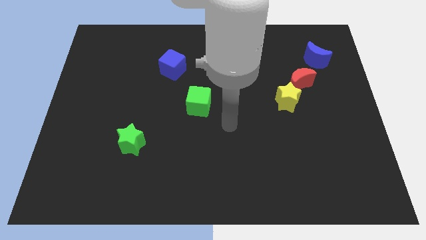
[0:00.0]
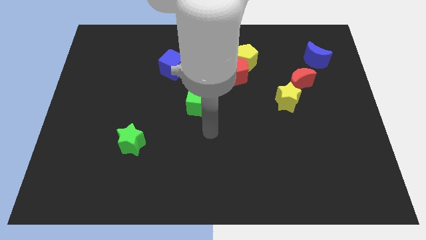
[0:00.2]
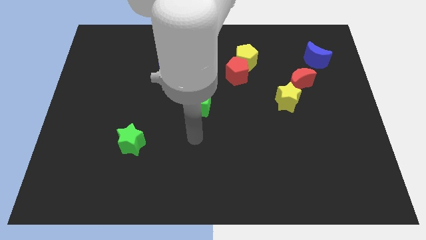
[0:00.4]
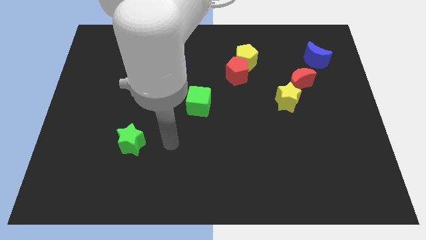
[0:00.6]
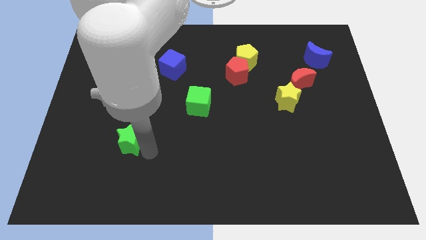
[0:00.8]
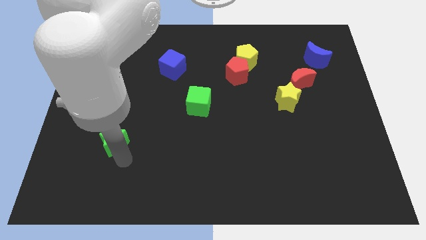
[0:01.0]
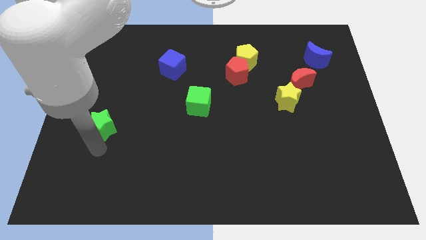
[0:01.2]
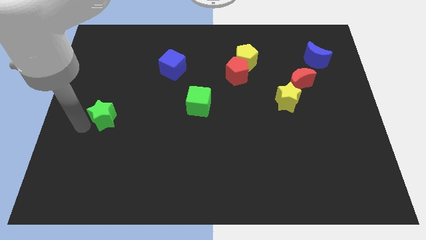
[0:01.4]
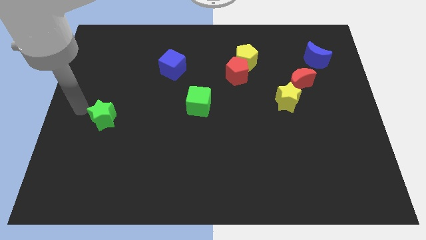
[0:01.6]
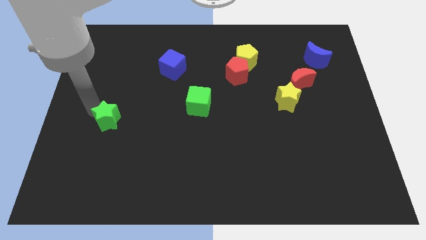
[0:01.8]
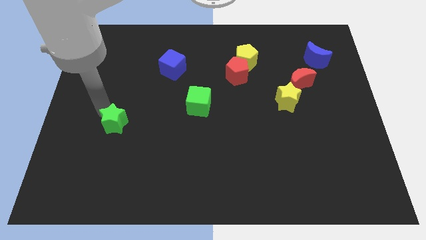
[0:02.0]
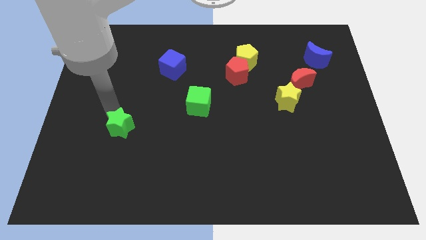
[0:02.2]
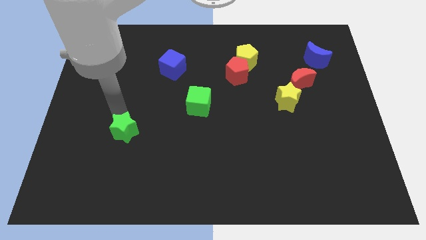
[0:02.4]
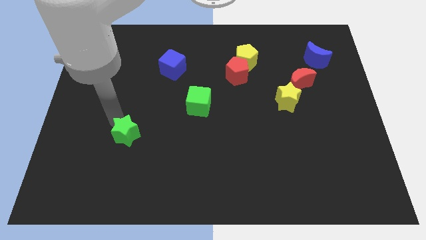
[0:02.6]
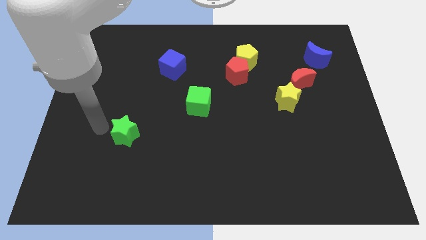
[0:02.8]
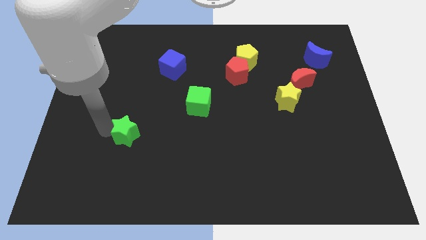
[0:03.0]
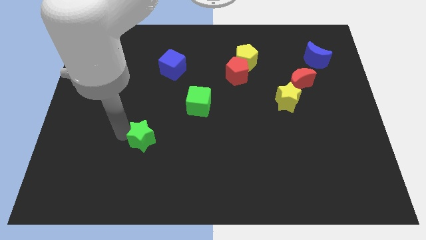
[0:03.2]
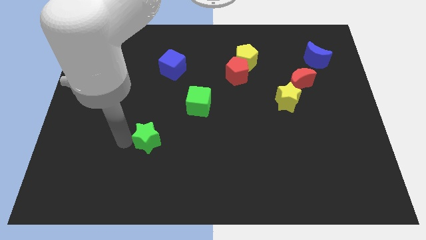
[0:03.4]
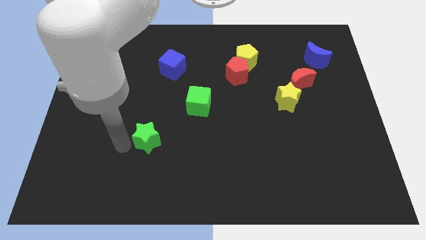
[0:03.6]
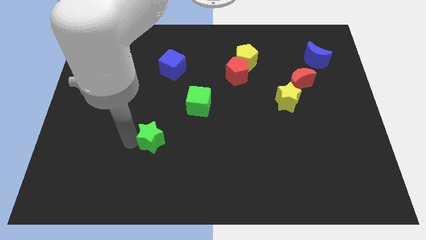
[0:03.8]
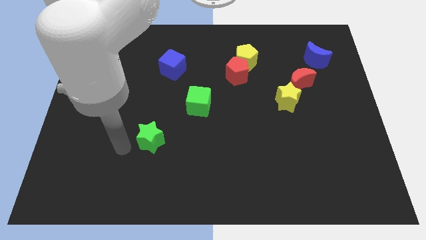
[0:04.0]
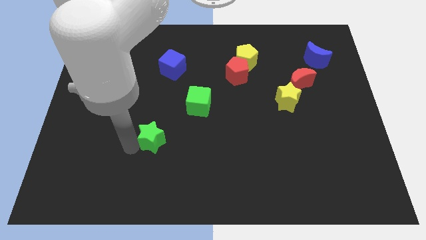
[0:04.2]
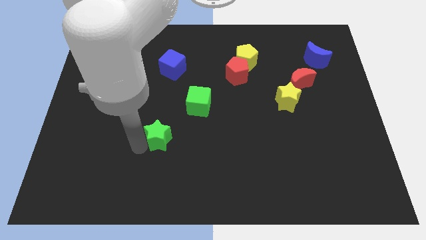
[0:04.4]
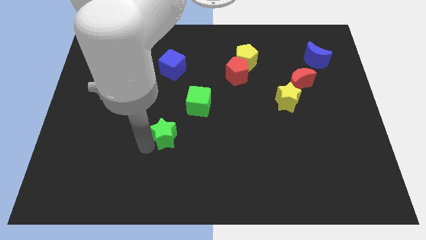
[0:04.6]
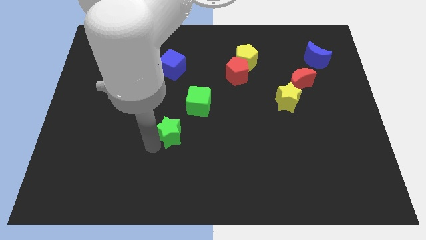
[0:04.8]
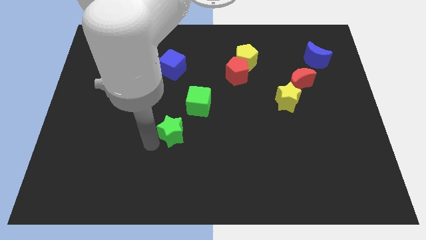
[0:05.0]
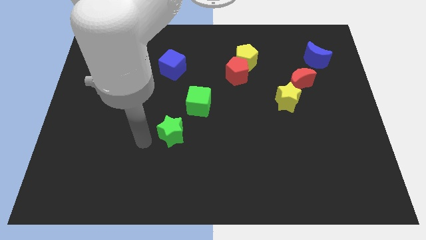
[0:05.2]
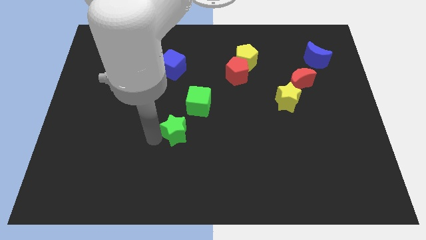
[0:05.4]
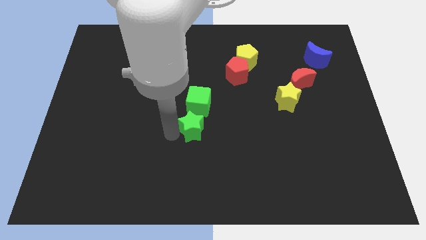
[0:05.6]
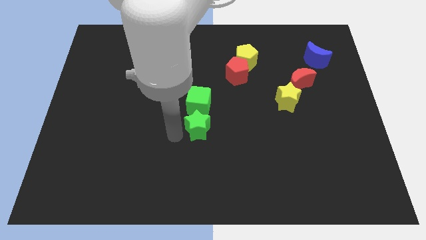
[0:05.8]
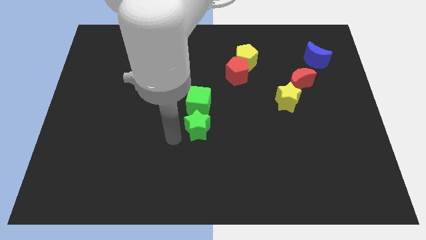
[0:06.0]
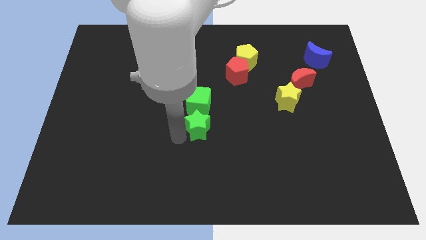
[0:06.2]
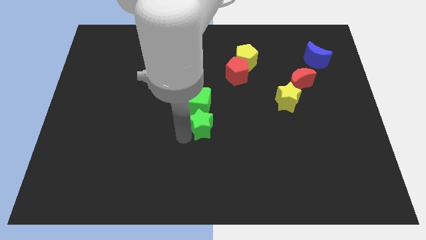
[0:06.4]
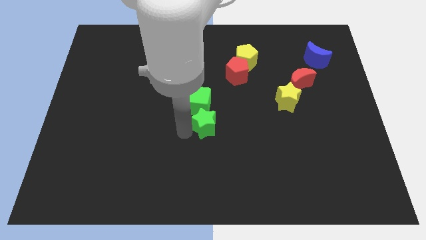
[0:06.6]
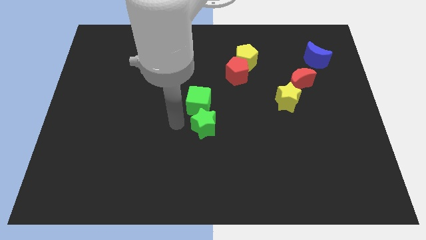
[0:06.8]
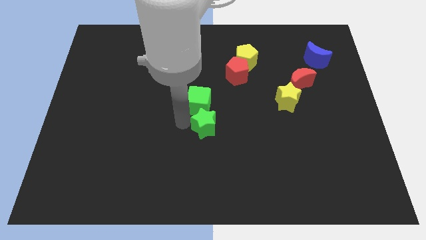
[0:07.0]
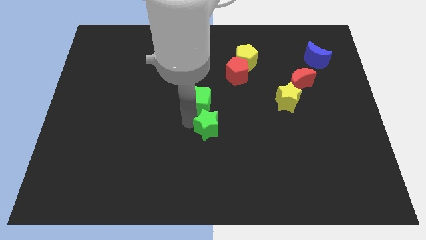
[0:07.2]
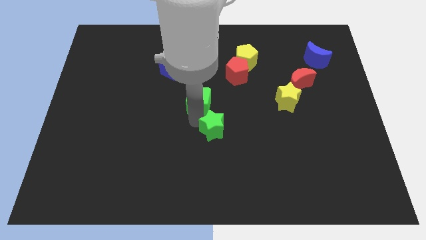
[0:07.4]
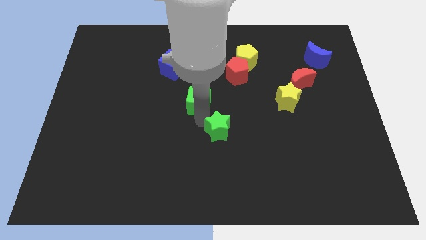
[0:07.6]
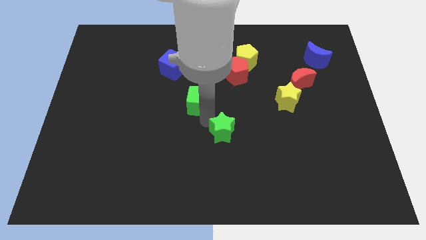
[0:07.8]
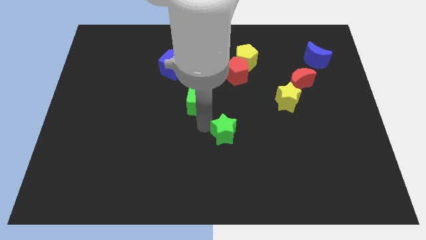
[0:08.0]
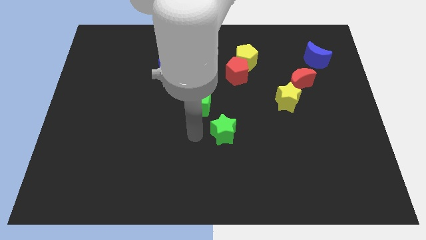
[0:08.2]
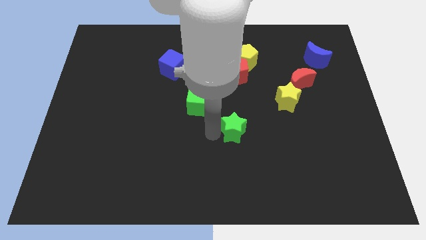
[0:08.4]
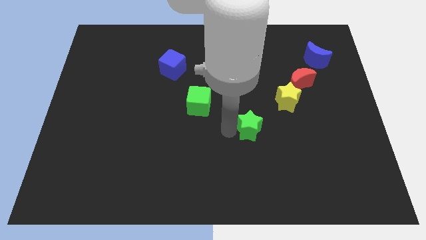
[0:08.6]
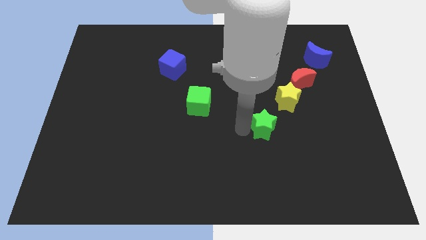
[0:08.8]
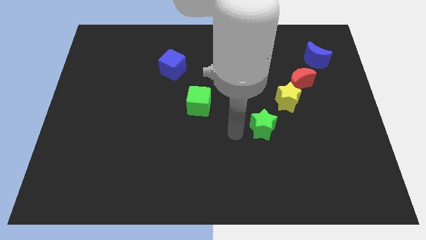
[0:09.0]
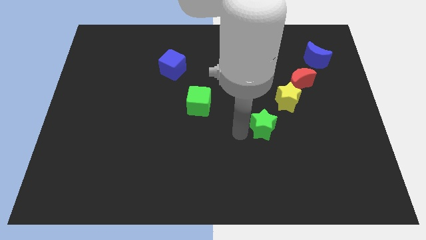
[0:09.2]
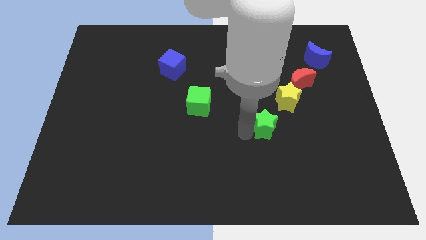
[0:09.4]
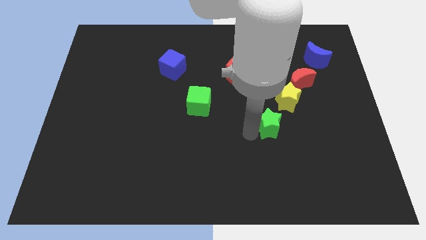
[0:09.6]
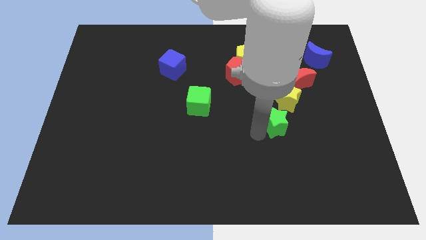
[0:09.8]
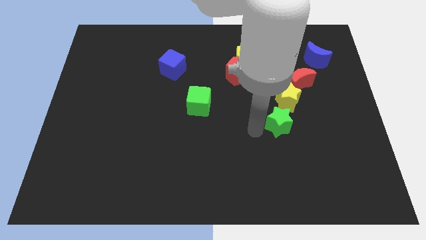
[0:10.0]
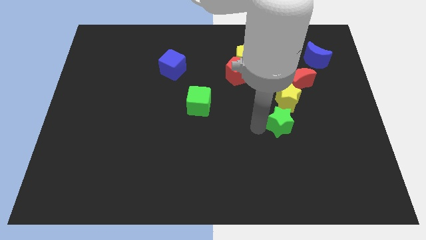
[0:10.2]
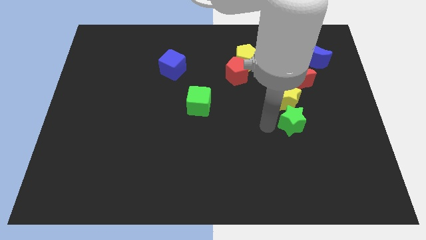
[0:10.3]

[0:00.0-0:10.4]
put the green star to the bottom right side of the yellow star

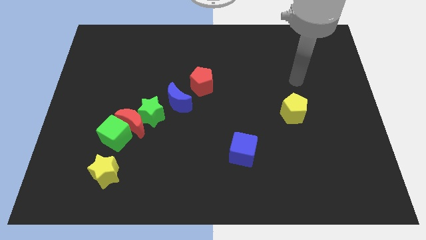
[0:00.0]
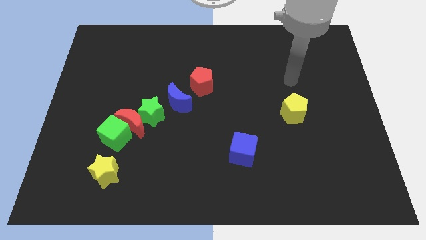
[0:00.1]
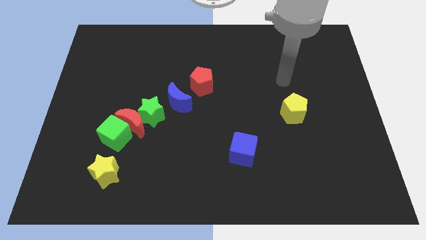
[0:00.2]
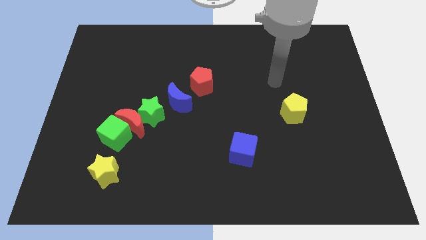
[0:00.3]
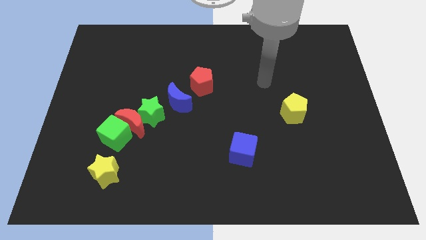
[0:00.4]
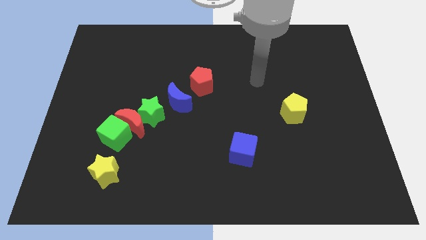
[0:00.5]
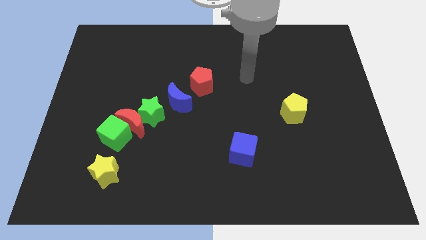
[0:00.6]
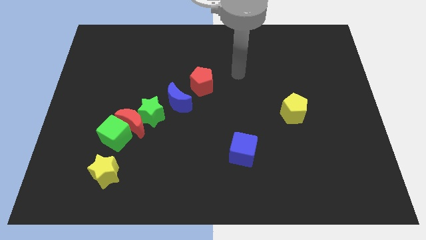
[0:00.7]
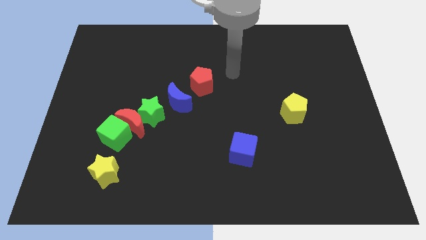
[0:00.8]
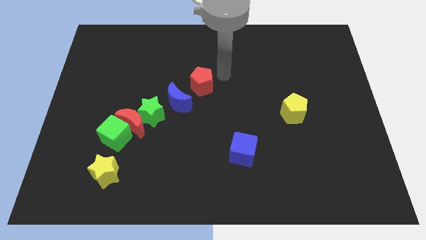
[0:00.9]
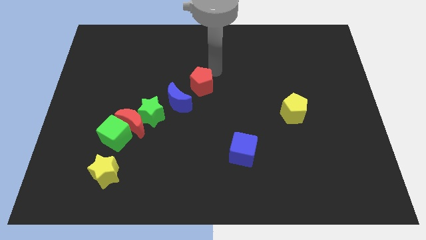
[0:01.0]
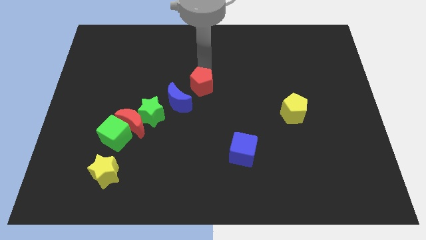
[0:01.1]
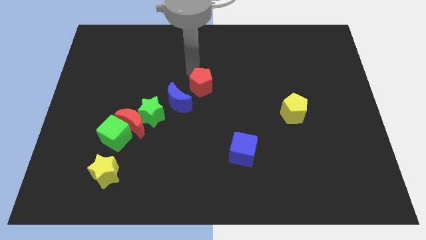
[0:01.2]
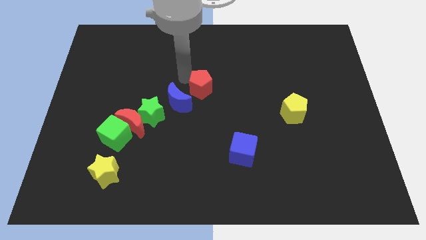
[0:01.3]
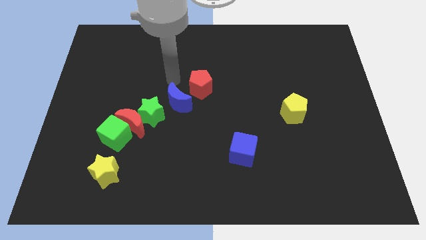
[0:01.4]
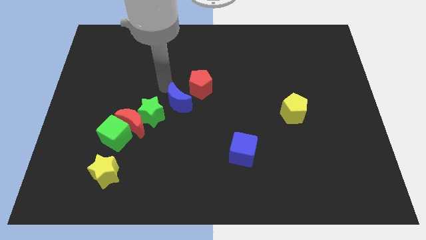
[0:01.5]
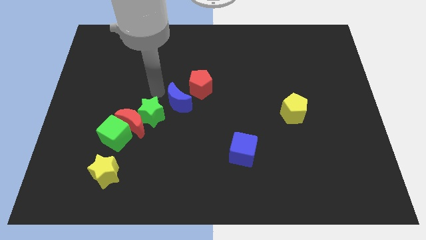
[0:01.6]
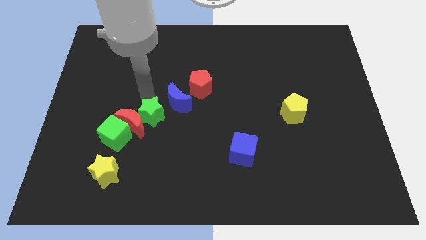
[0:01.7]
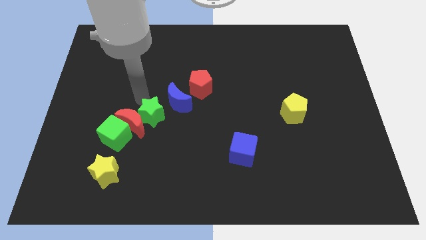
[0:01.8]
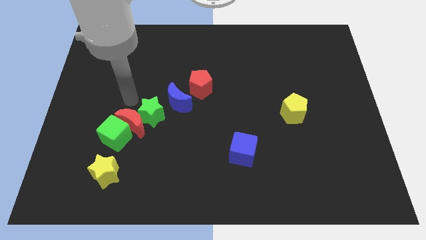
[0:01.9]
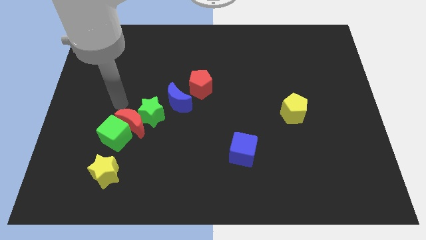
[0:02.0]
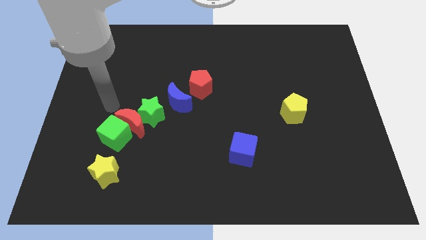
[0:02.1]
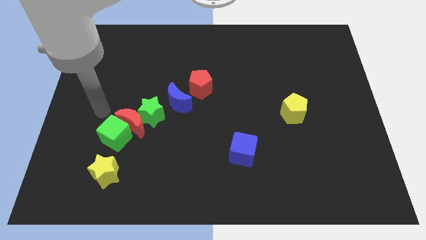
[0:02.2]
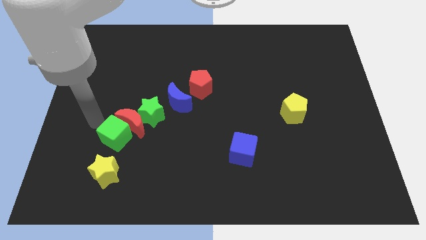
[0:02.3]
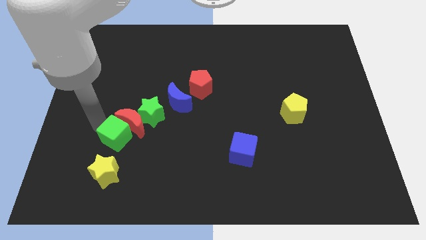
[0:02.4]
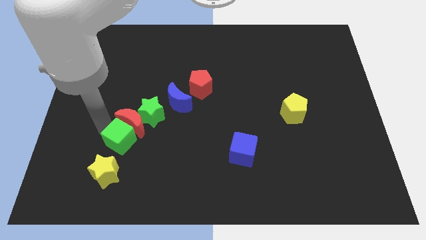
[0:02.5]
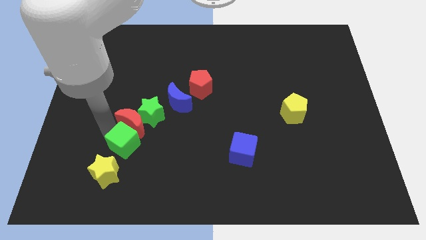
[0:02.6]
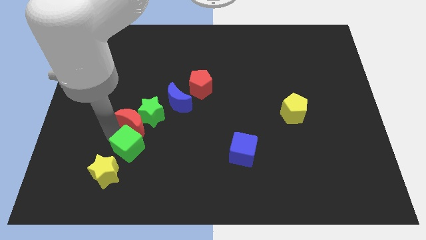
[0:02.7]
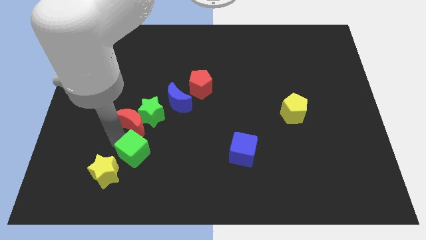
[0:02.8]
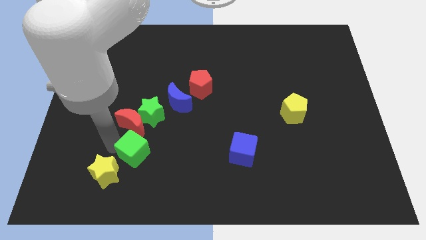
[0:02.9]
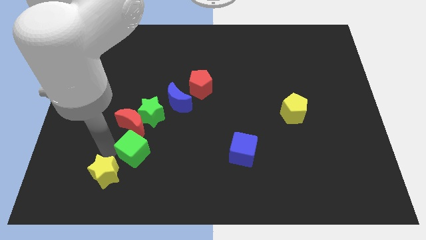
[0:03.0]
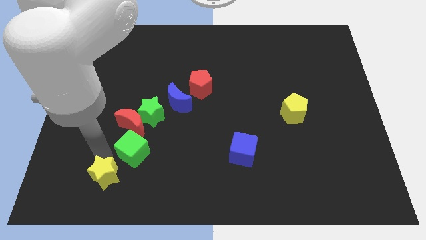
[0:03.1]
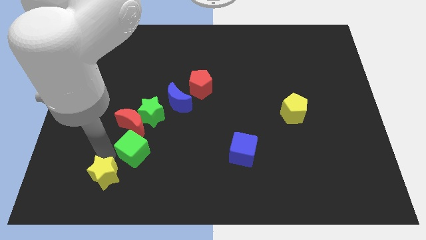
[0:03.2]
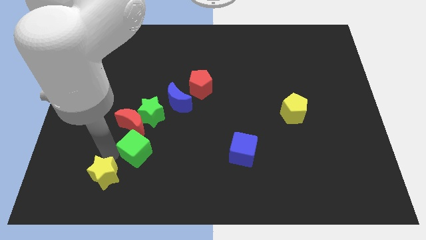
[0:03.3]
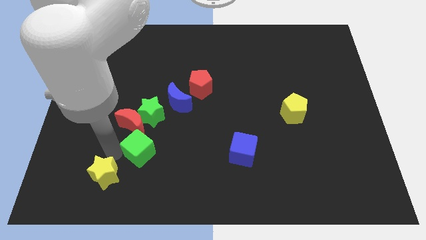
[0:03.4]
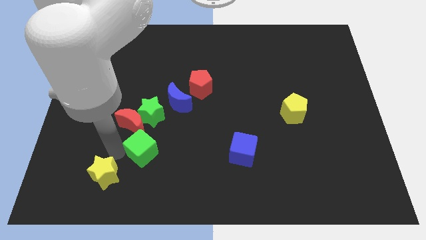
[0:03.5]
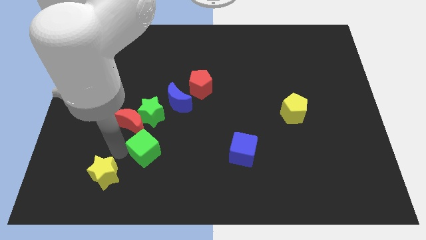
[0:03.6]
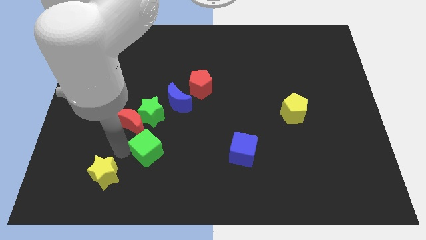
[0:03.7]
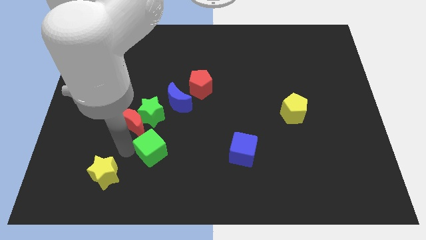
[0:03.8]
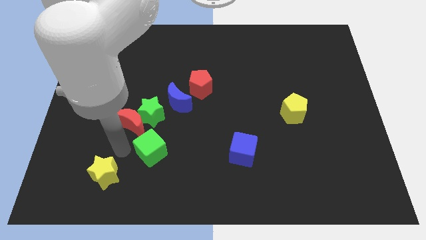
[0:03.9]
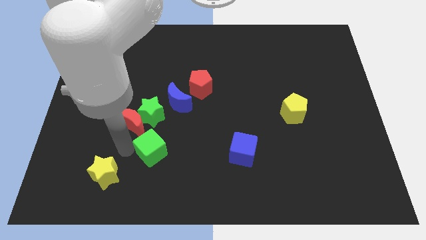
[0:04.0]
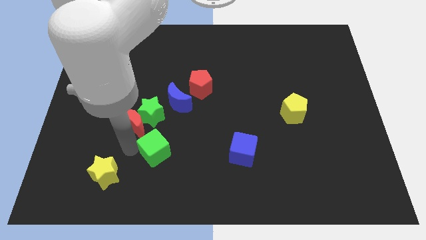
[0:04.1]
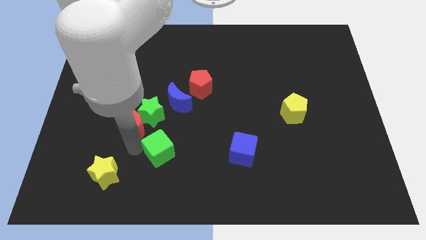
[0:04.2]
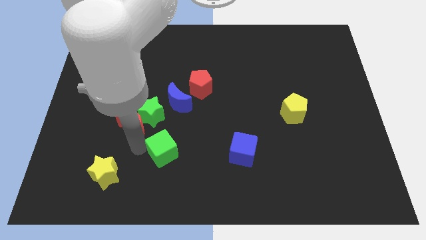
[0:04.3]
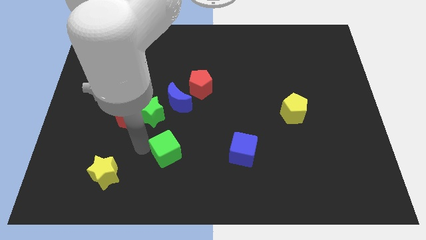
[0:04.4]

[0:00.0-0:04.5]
put the green cube left of the blue cube
